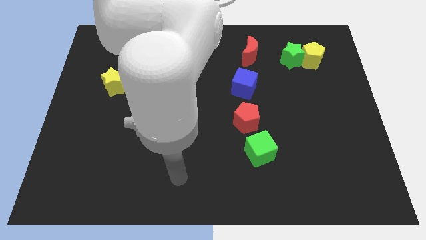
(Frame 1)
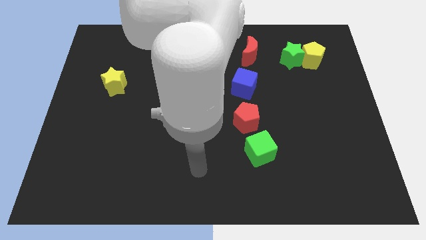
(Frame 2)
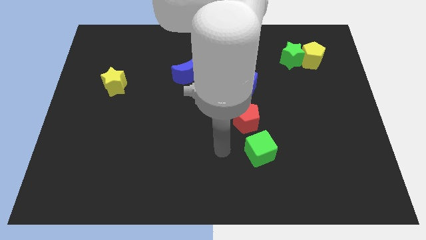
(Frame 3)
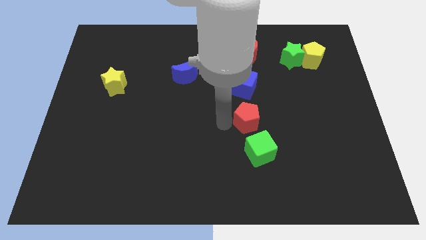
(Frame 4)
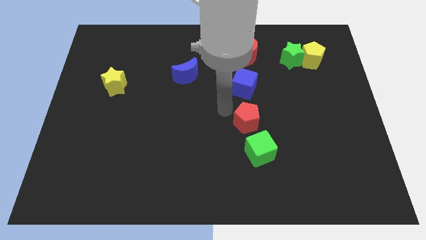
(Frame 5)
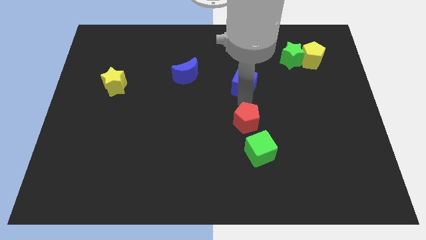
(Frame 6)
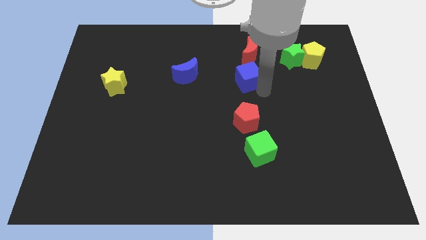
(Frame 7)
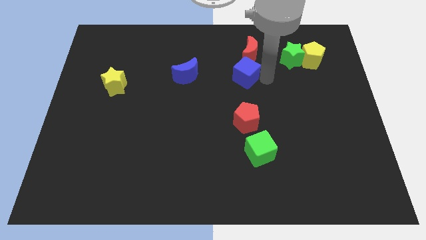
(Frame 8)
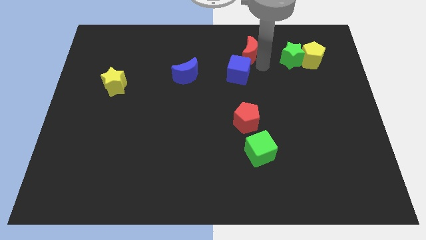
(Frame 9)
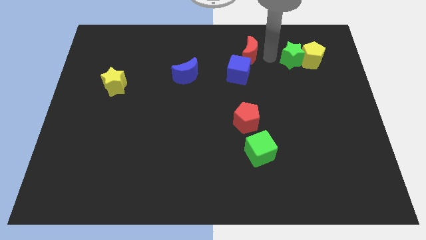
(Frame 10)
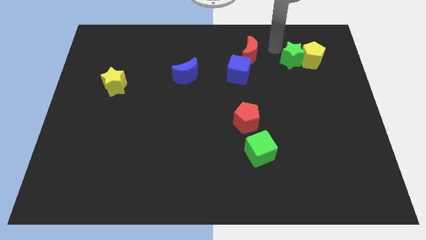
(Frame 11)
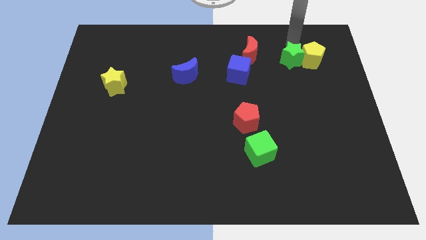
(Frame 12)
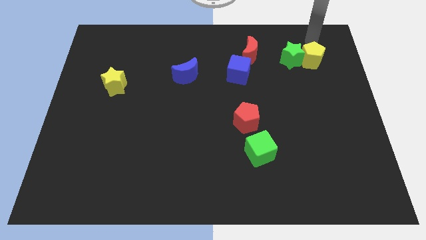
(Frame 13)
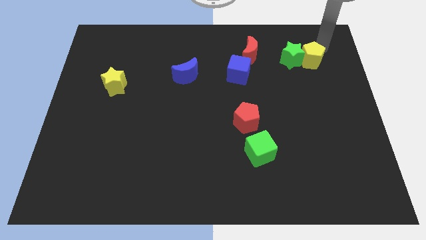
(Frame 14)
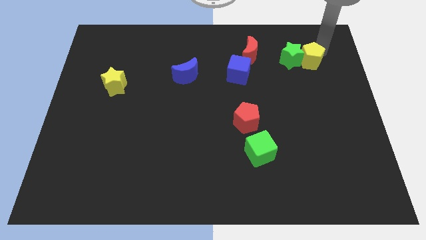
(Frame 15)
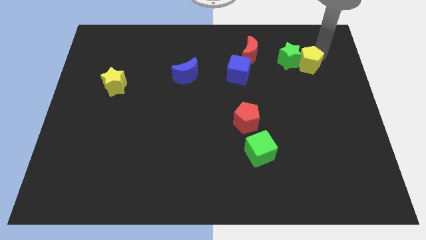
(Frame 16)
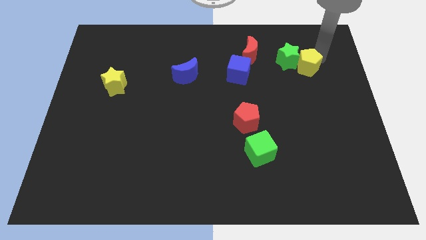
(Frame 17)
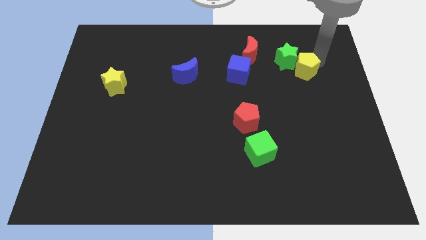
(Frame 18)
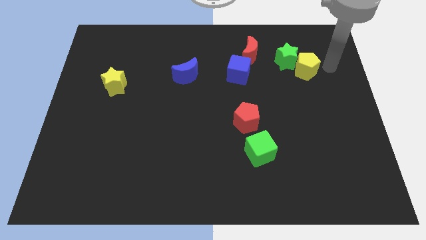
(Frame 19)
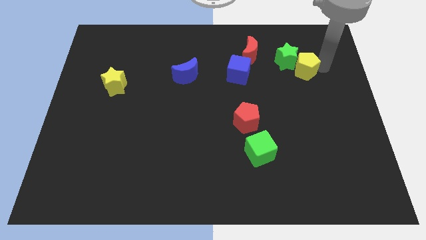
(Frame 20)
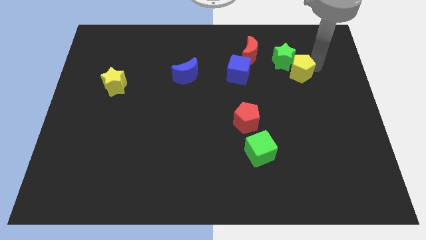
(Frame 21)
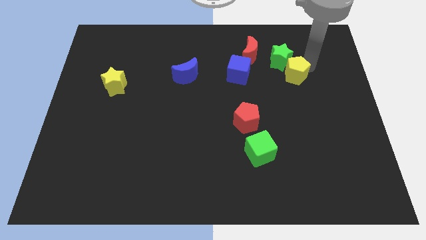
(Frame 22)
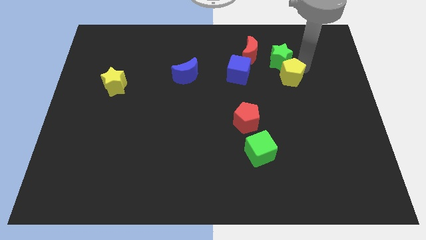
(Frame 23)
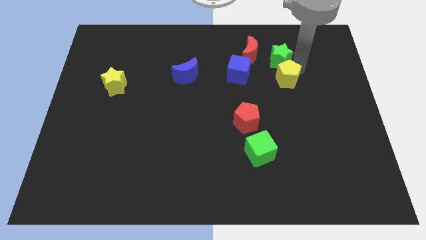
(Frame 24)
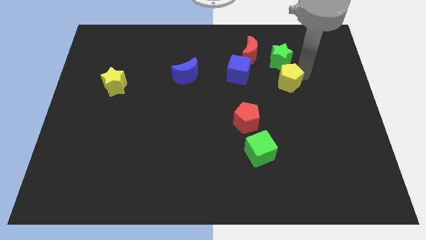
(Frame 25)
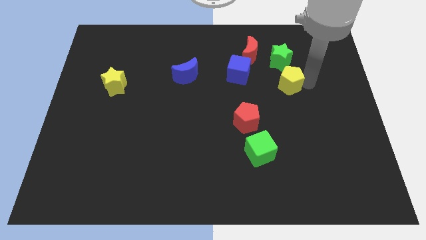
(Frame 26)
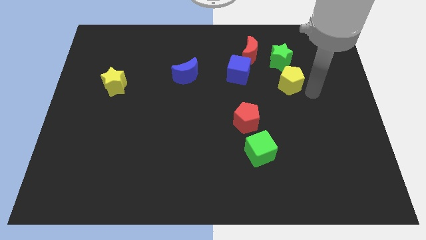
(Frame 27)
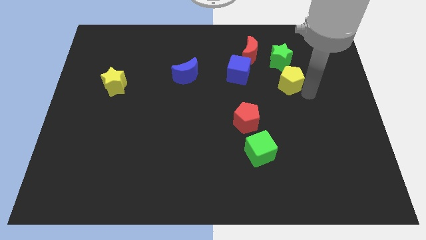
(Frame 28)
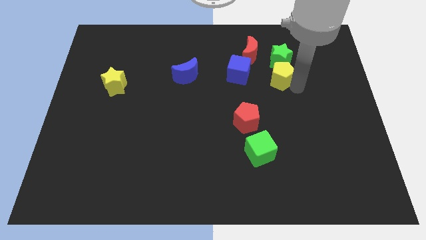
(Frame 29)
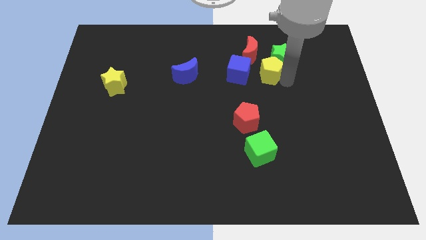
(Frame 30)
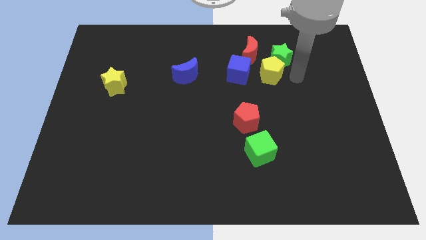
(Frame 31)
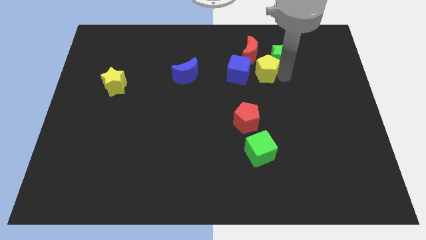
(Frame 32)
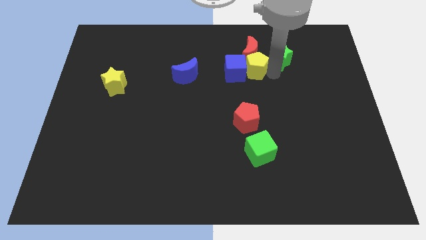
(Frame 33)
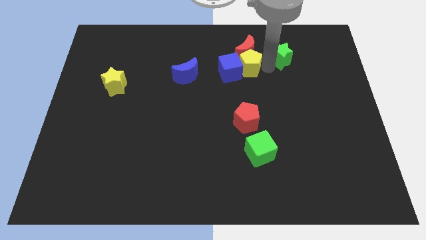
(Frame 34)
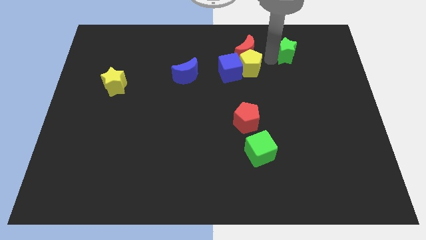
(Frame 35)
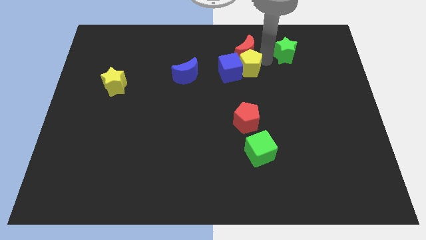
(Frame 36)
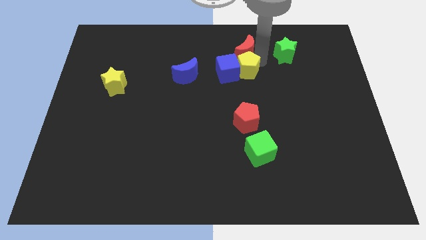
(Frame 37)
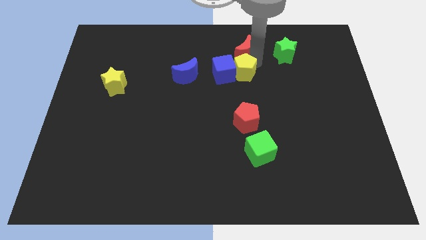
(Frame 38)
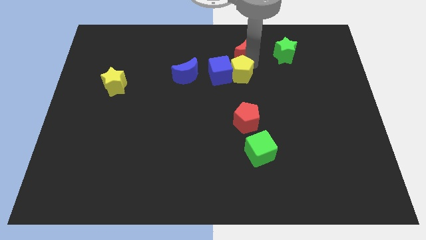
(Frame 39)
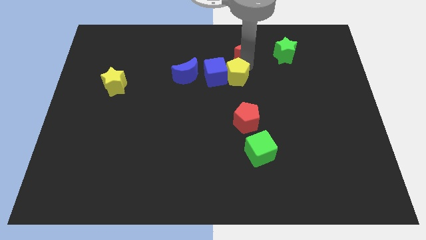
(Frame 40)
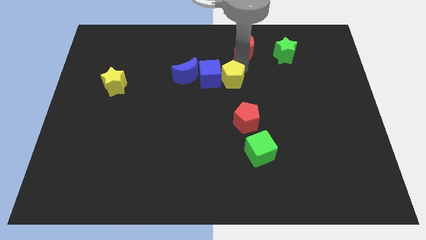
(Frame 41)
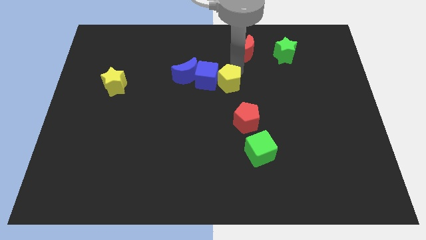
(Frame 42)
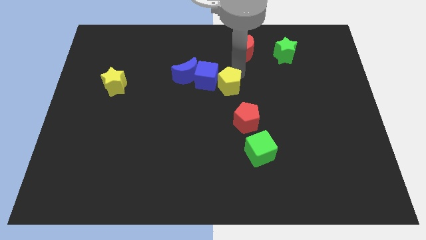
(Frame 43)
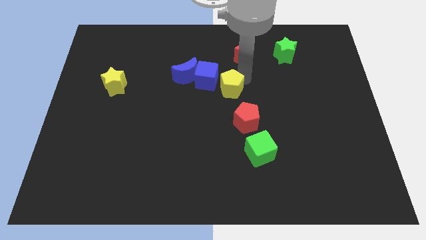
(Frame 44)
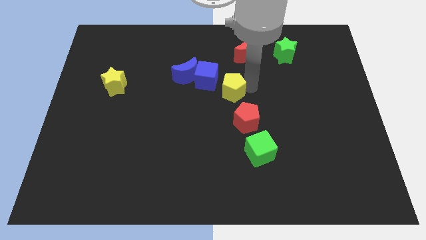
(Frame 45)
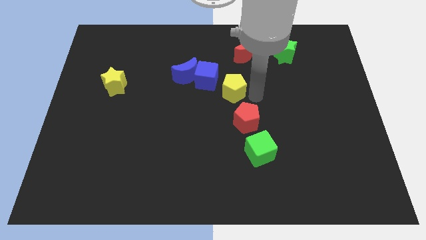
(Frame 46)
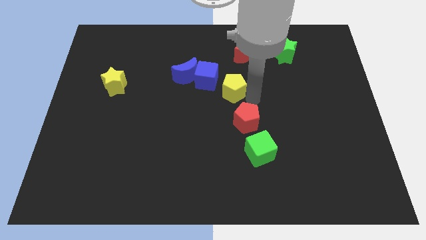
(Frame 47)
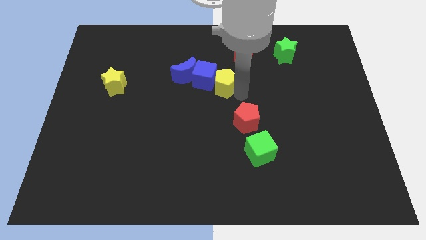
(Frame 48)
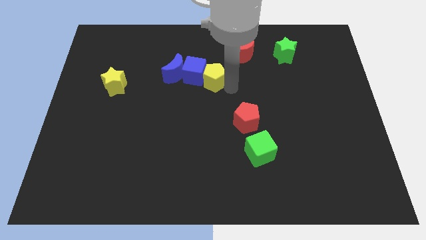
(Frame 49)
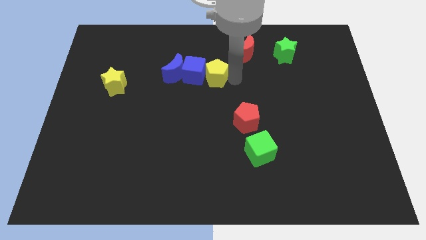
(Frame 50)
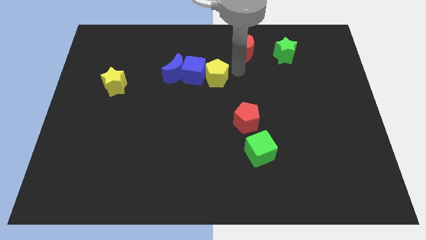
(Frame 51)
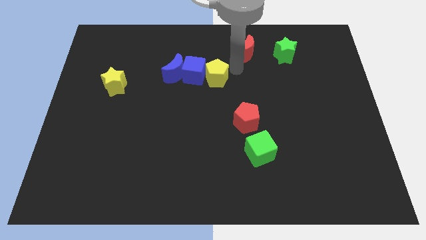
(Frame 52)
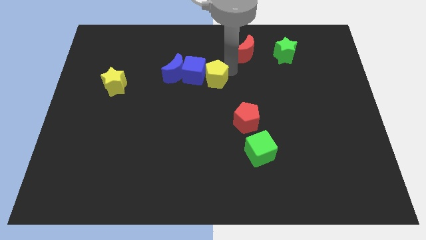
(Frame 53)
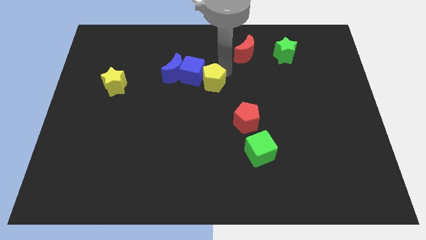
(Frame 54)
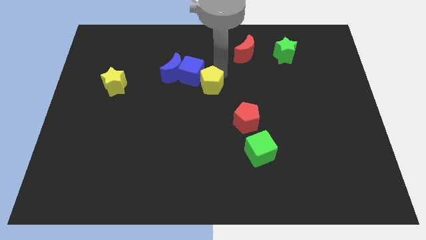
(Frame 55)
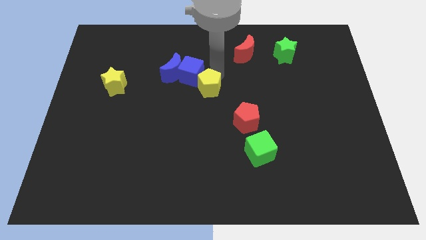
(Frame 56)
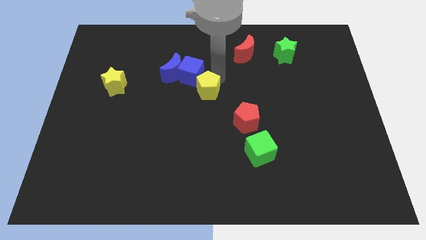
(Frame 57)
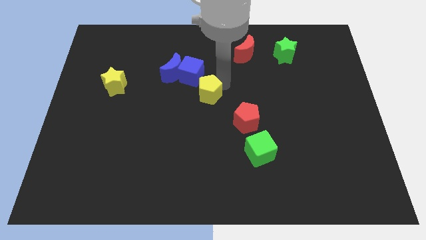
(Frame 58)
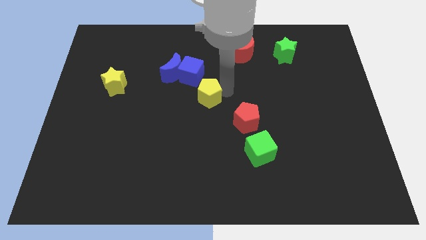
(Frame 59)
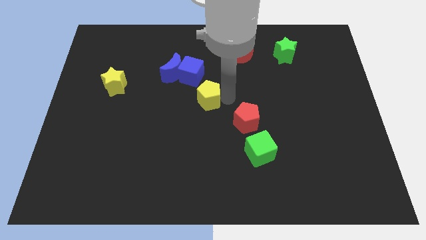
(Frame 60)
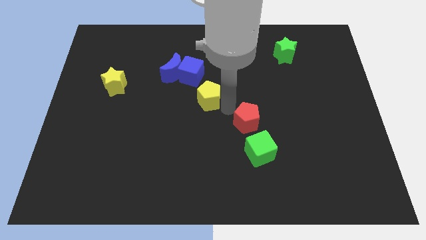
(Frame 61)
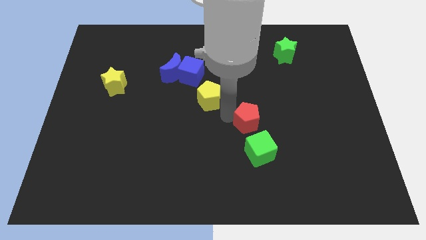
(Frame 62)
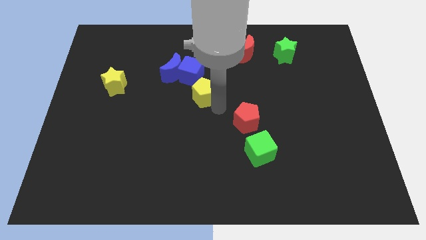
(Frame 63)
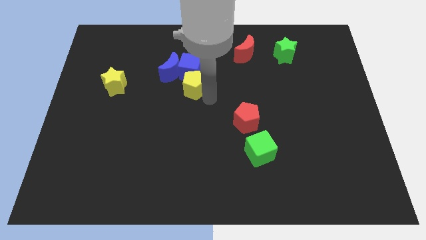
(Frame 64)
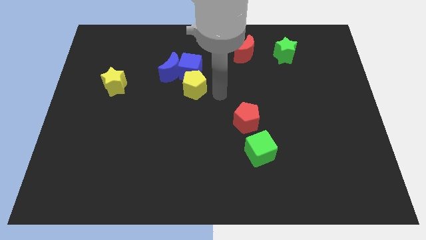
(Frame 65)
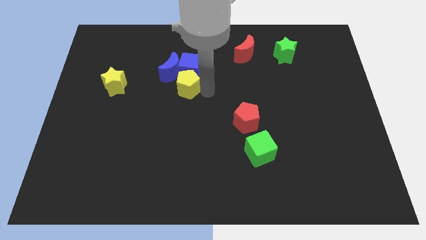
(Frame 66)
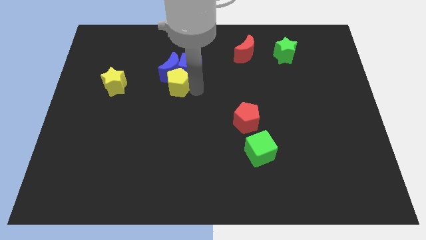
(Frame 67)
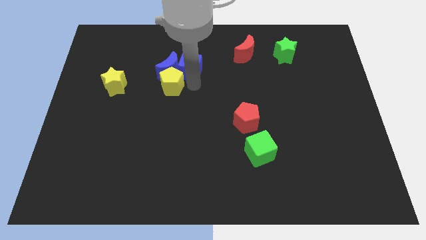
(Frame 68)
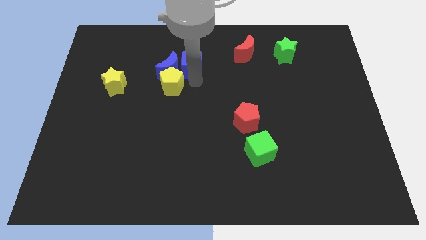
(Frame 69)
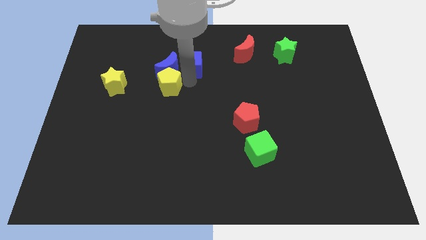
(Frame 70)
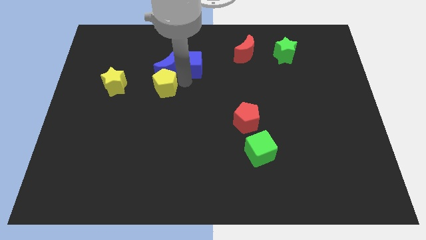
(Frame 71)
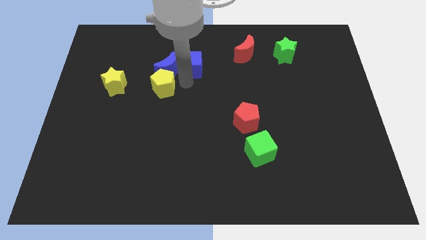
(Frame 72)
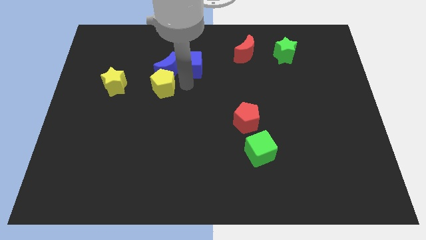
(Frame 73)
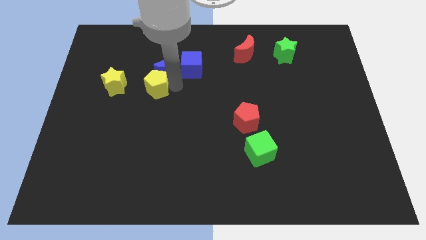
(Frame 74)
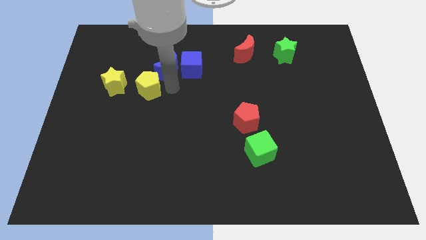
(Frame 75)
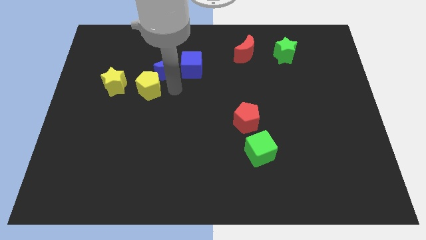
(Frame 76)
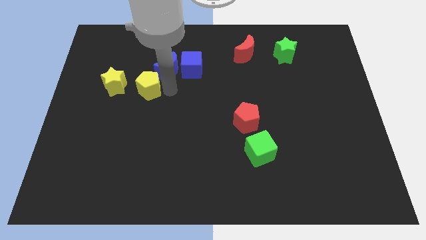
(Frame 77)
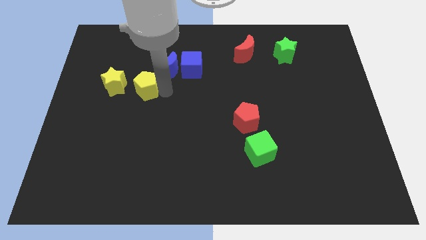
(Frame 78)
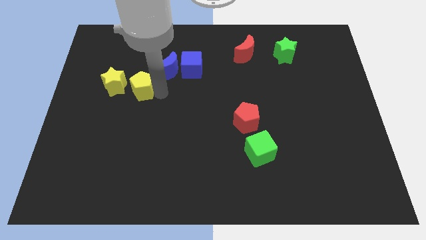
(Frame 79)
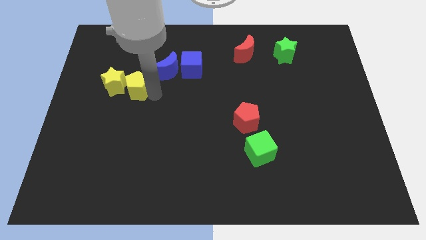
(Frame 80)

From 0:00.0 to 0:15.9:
put the yellow pentagon next to the yellow star
